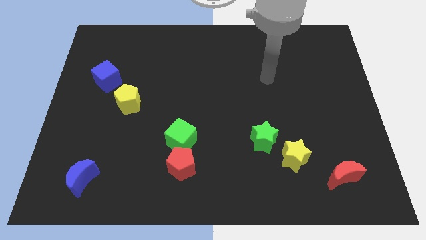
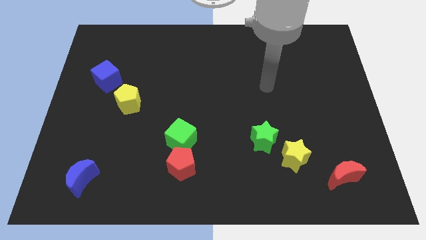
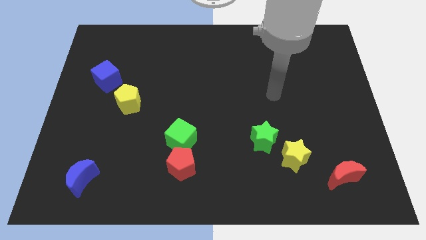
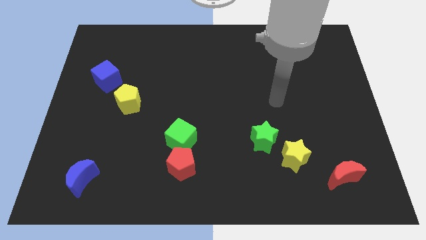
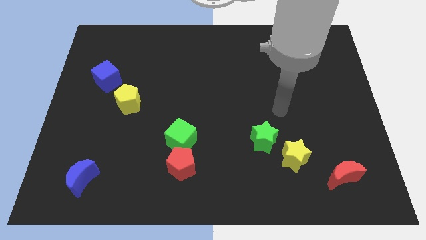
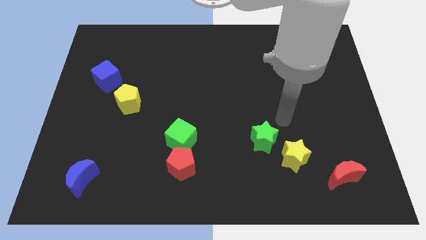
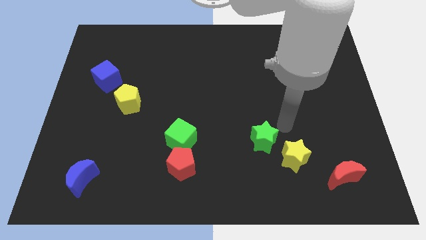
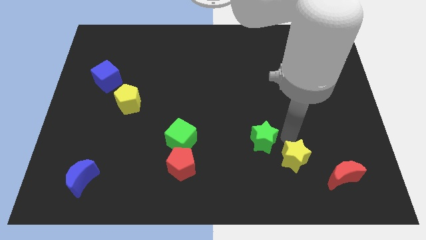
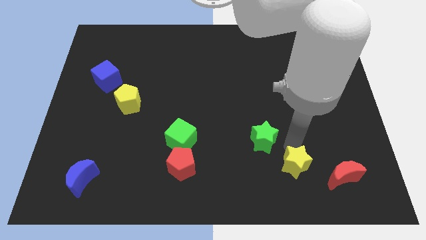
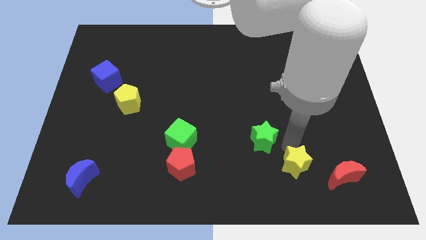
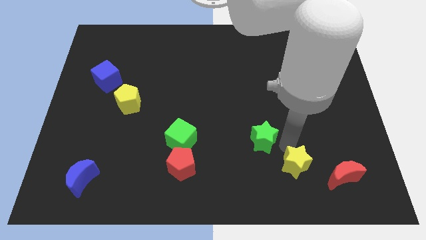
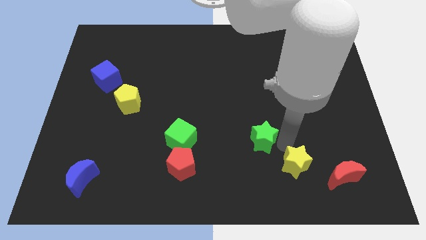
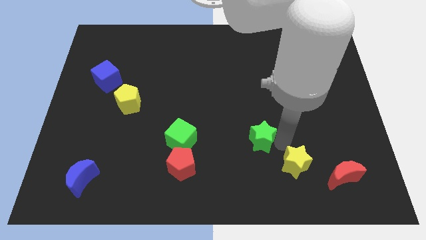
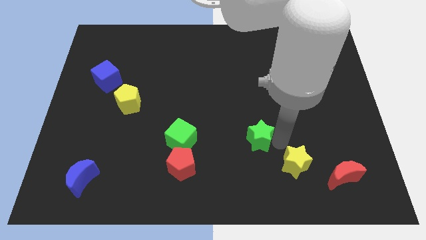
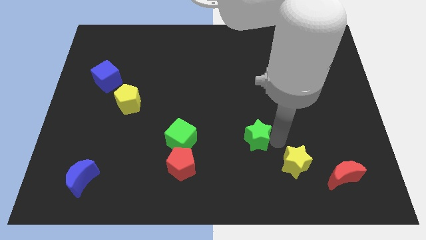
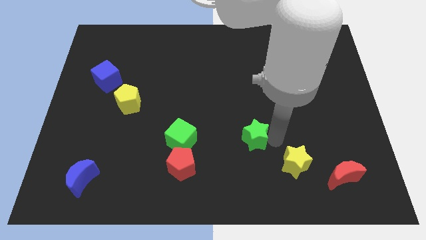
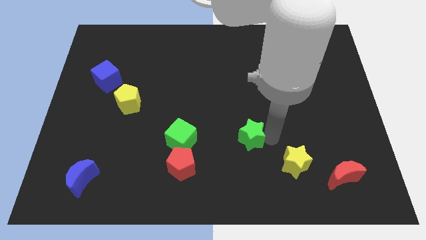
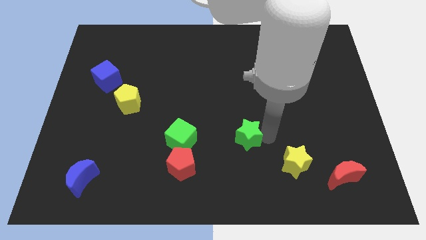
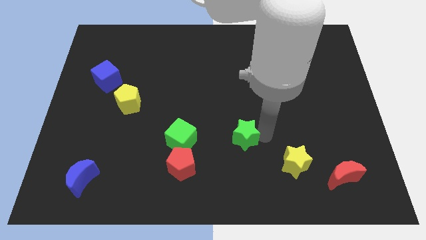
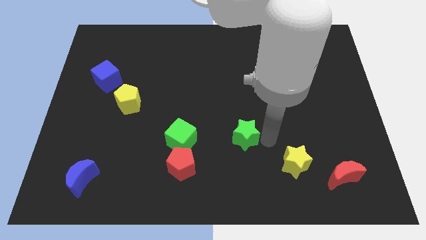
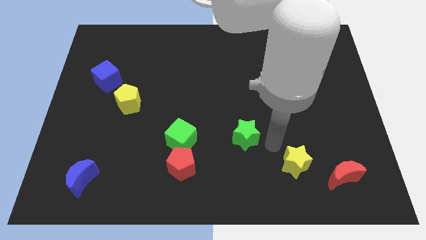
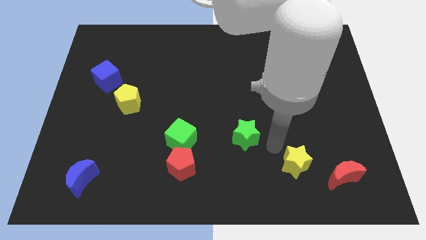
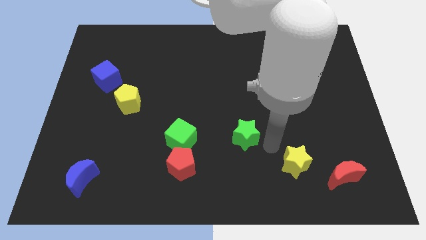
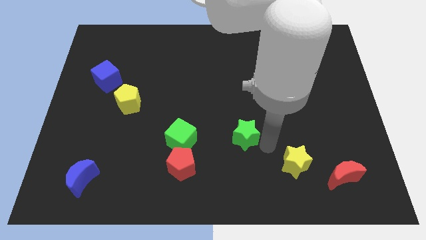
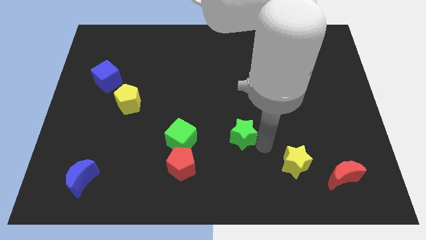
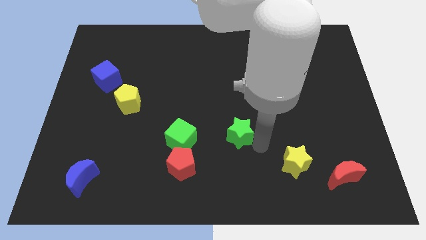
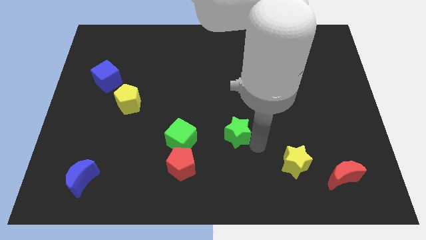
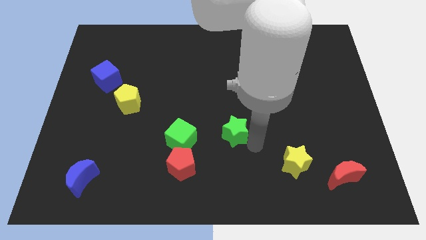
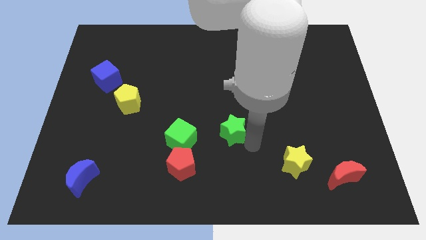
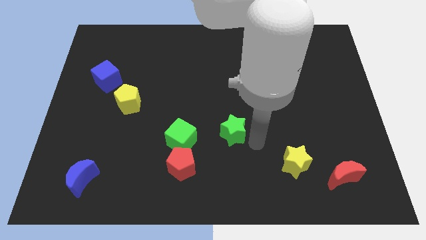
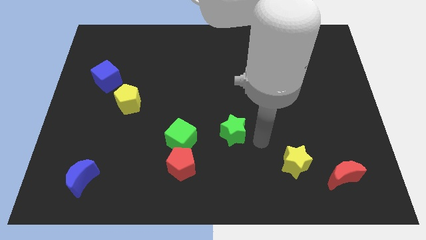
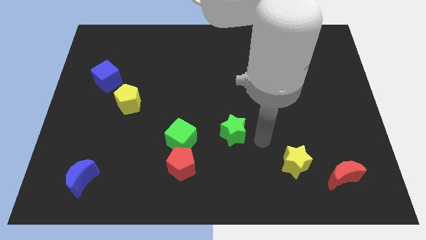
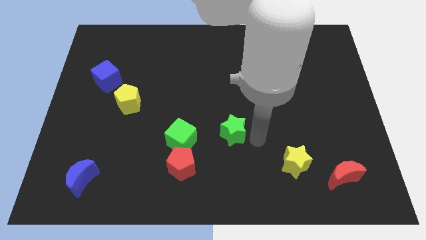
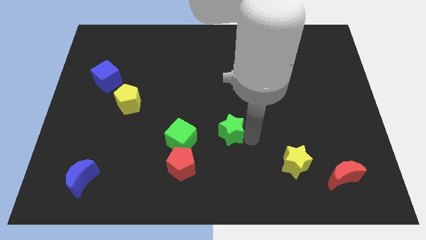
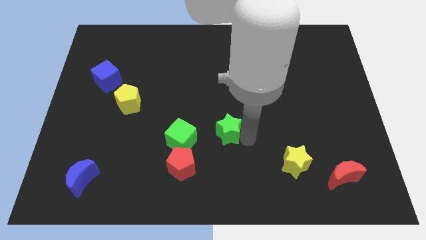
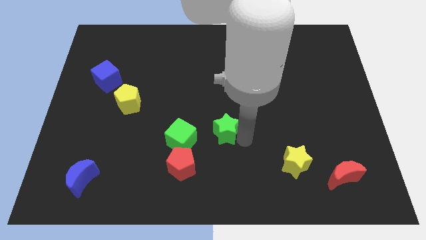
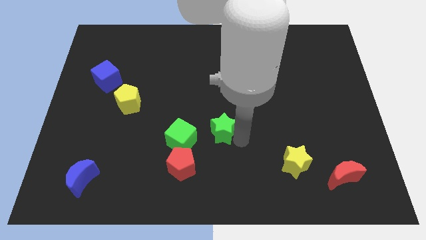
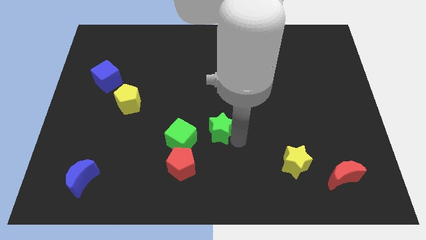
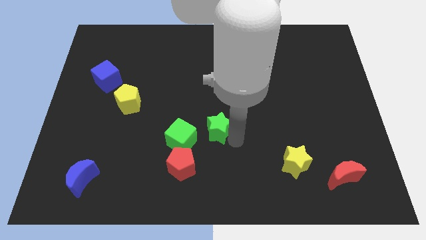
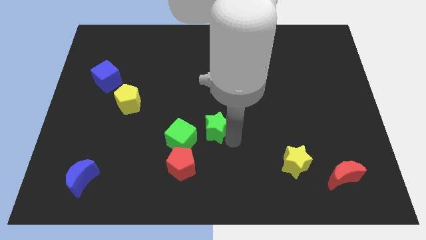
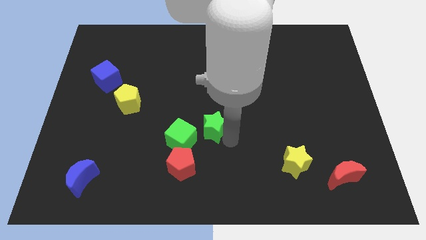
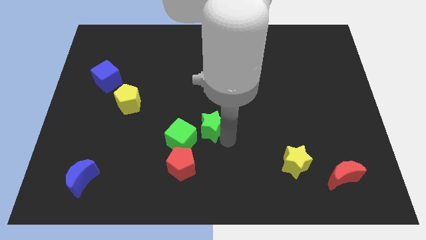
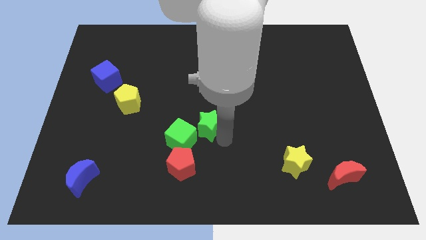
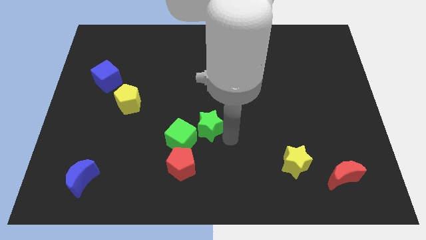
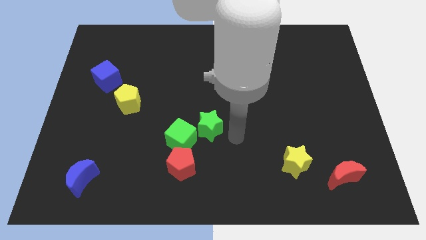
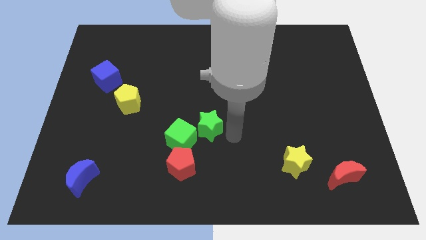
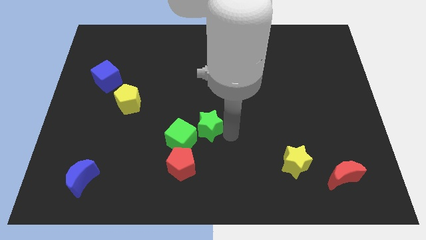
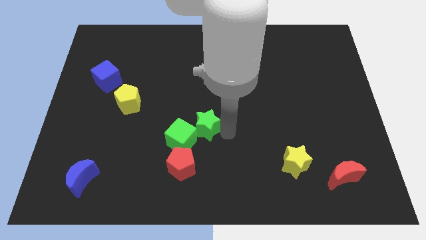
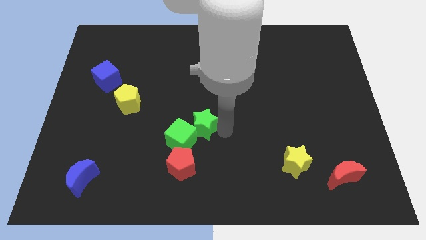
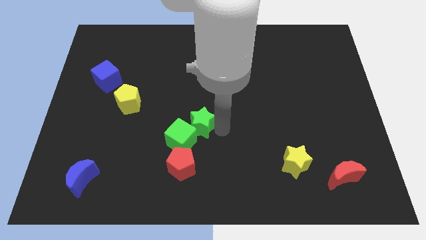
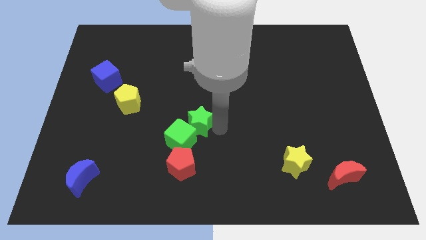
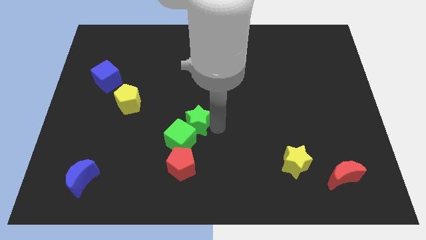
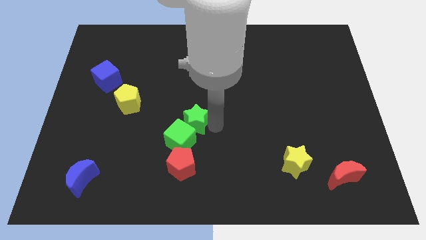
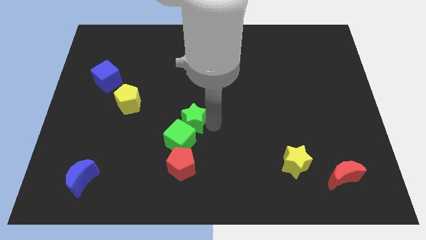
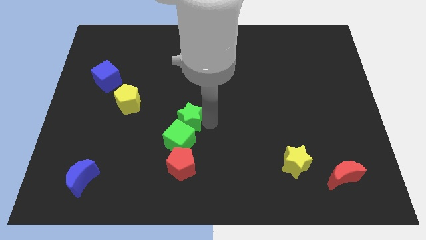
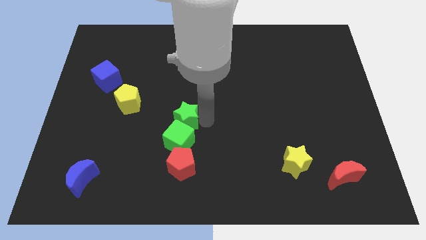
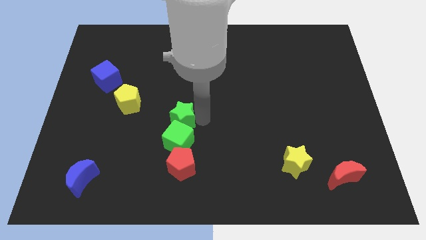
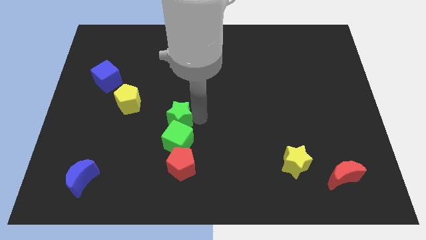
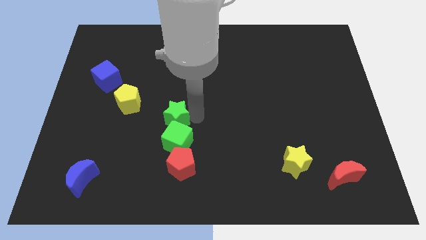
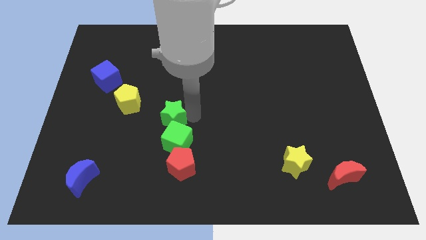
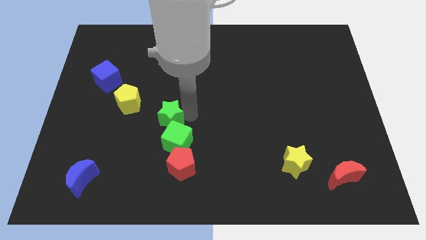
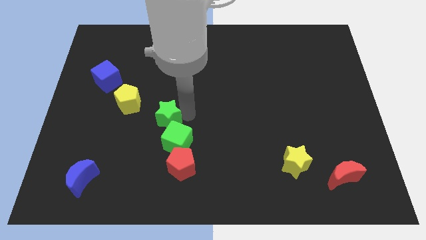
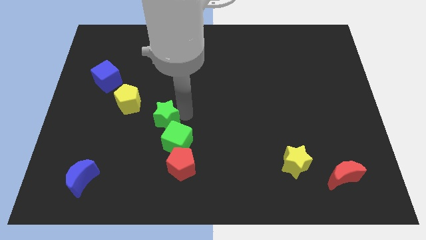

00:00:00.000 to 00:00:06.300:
slide the green star to the left

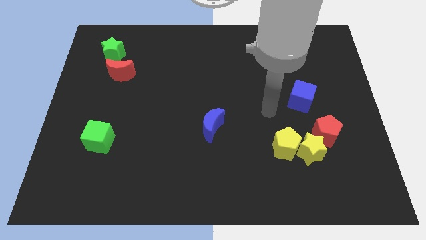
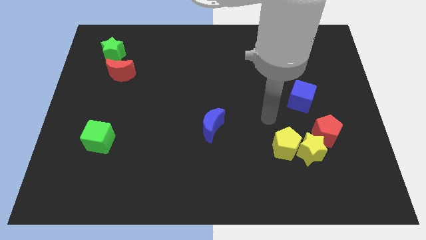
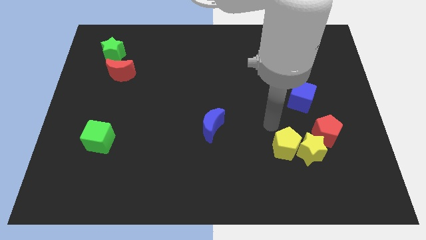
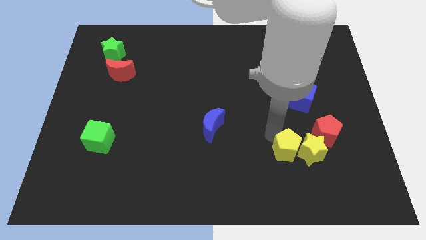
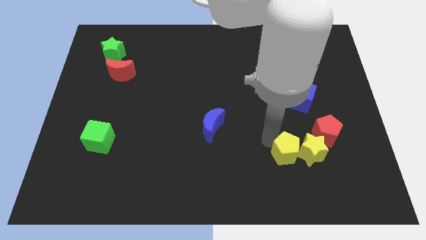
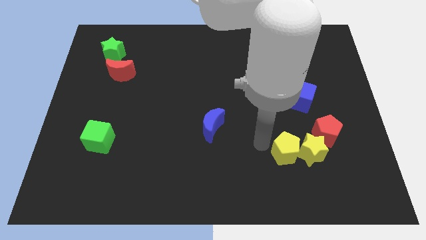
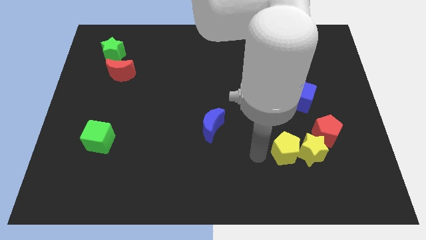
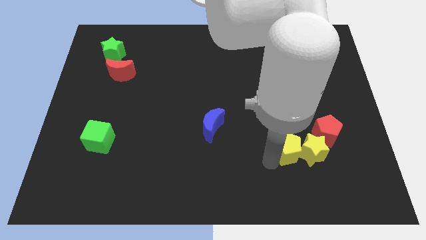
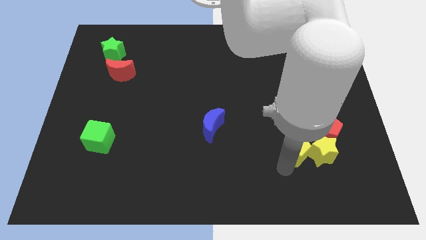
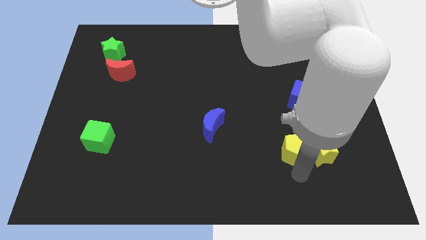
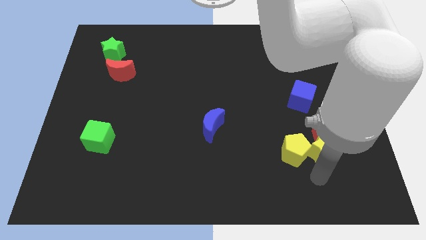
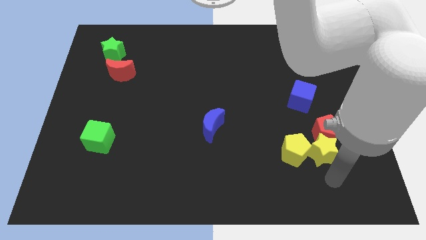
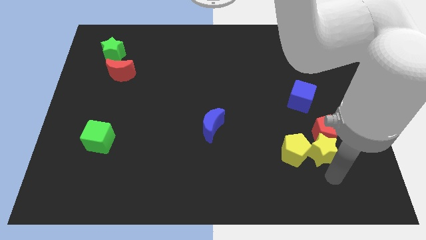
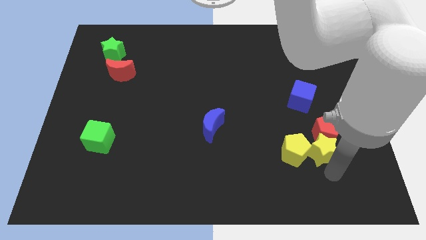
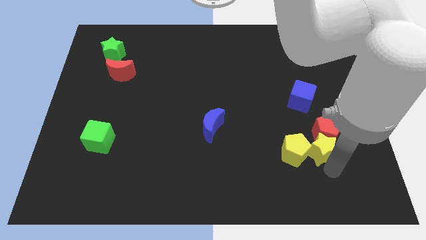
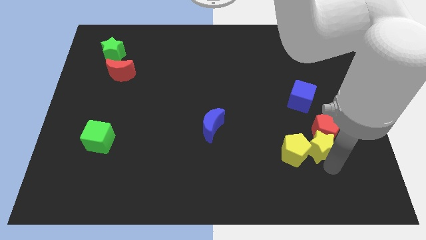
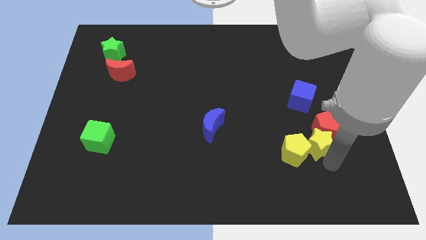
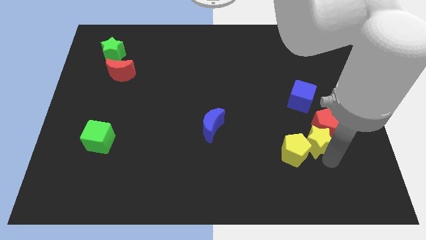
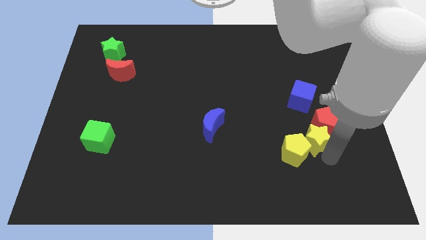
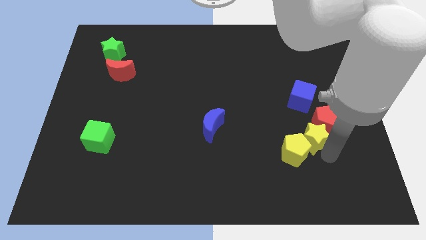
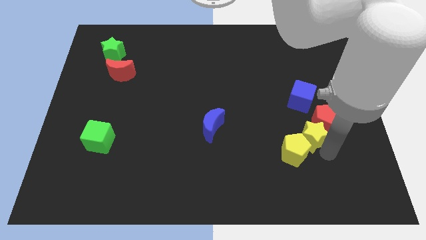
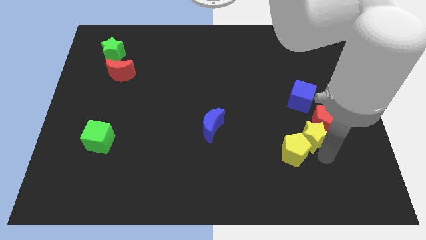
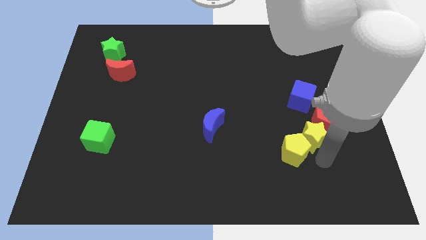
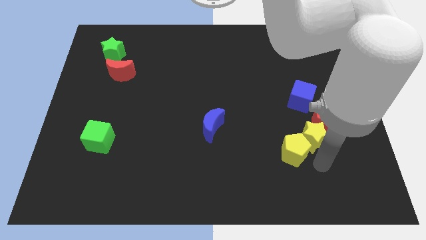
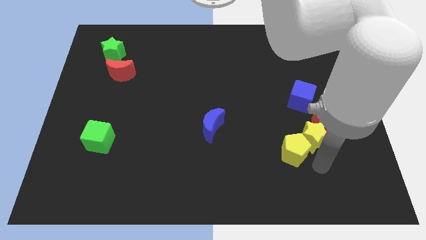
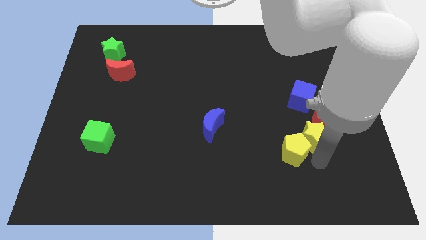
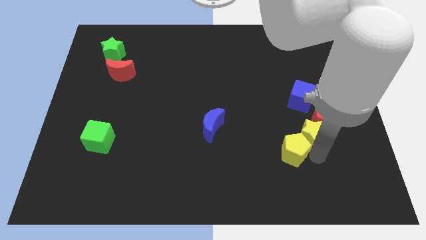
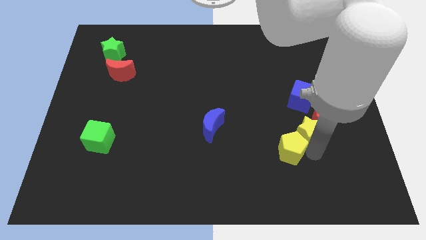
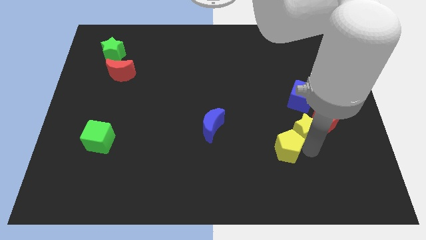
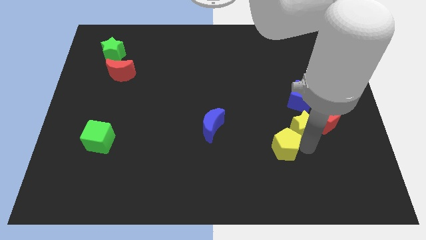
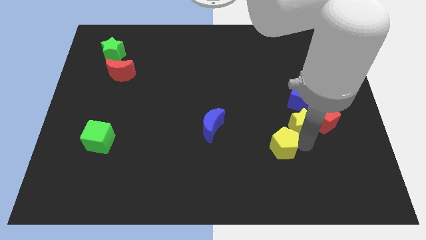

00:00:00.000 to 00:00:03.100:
push the yellow star upwards a little
